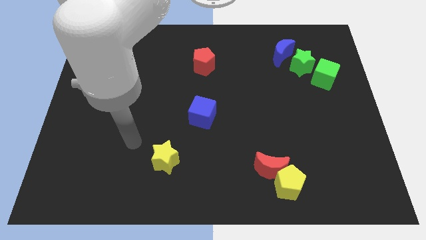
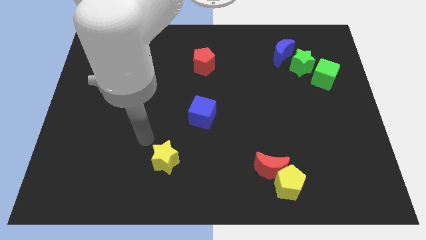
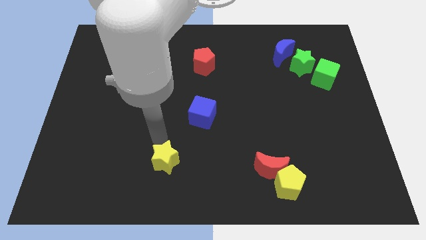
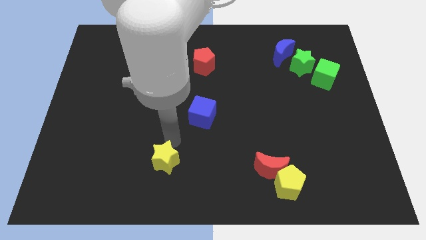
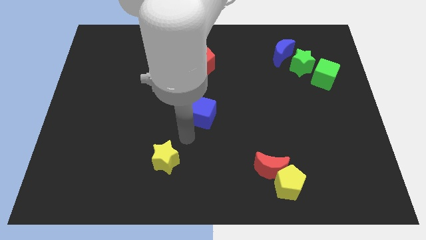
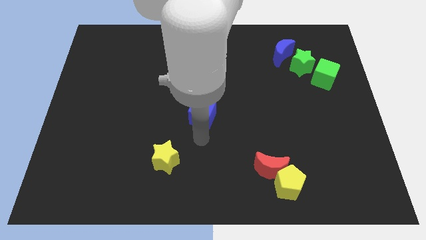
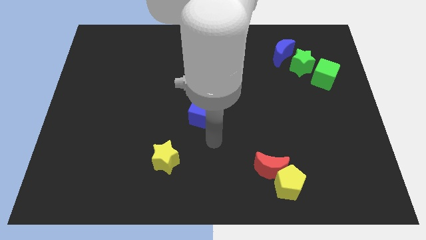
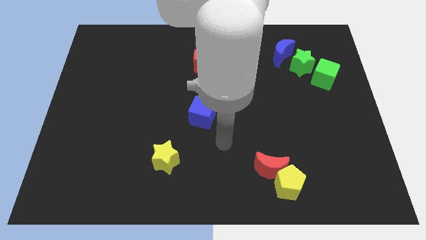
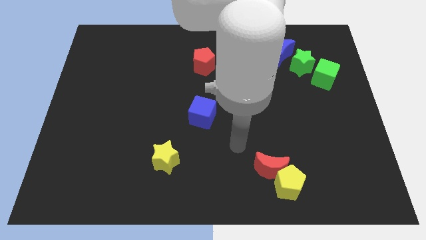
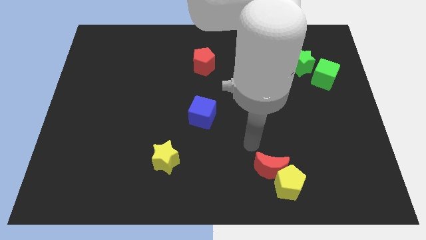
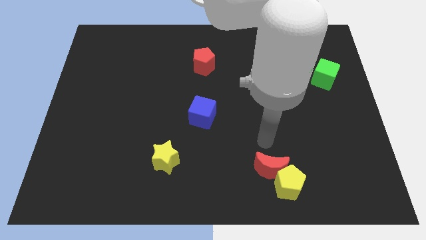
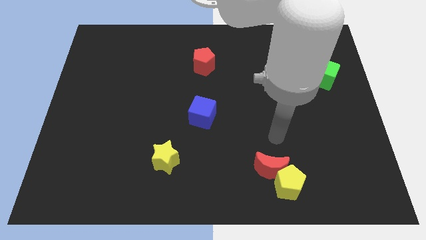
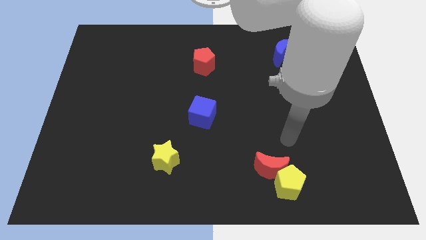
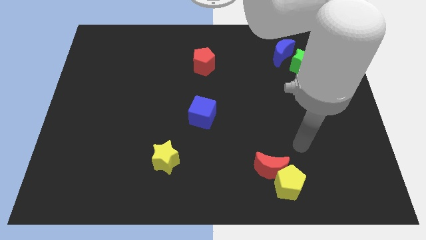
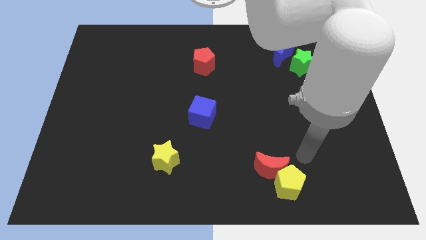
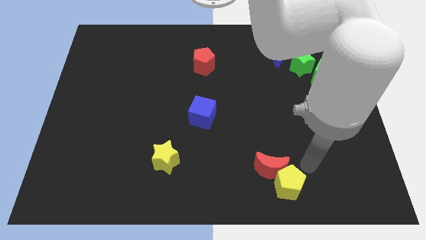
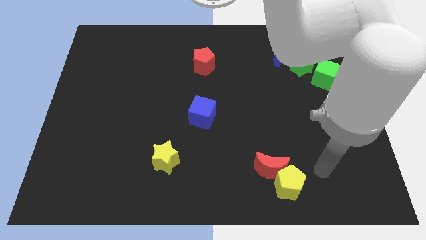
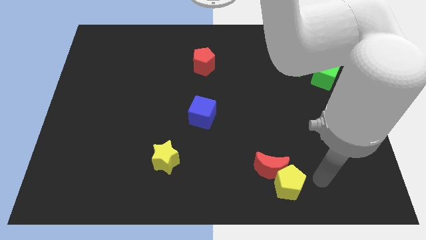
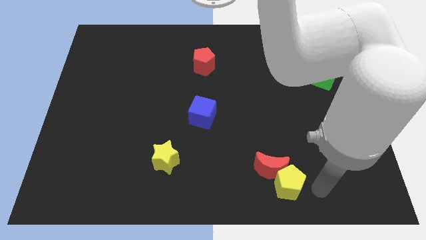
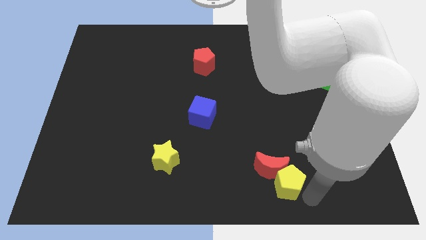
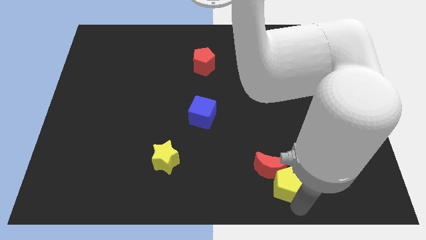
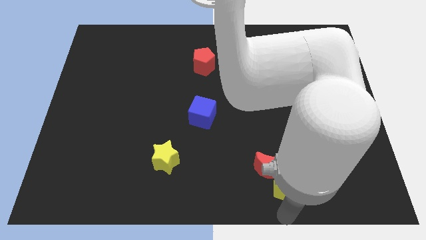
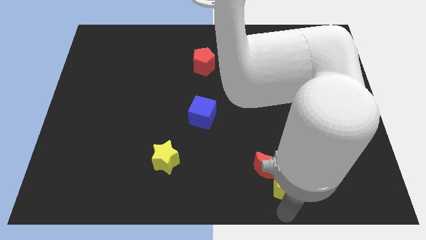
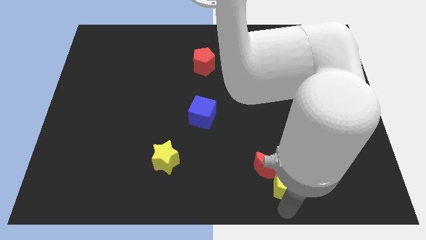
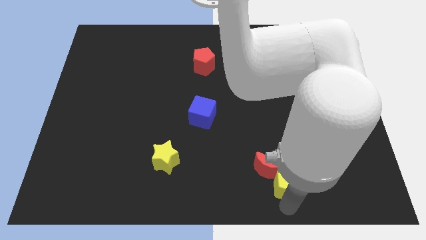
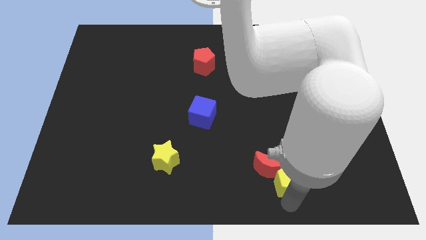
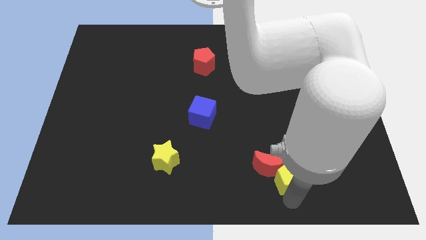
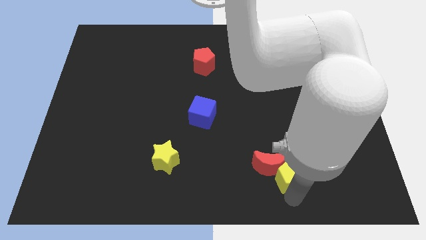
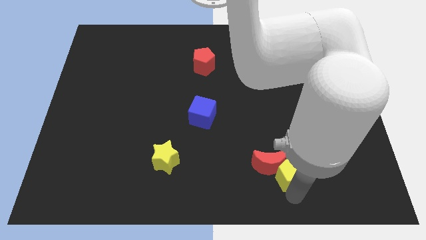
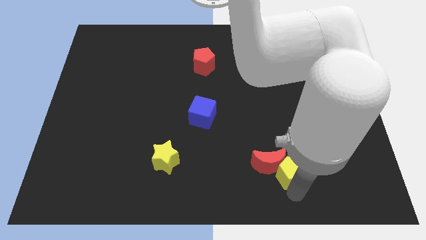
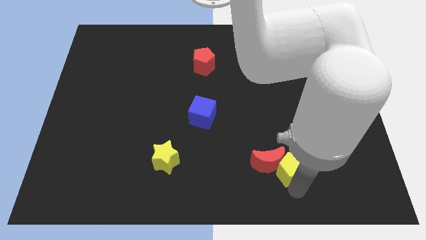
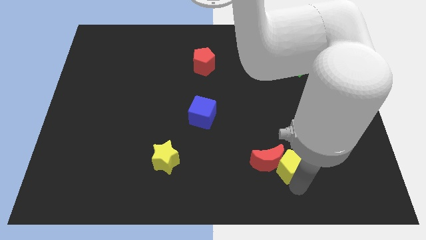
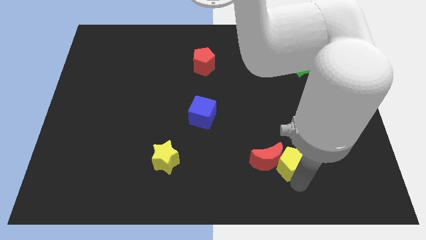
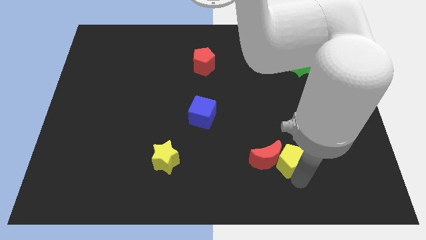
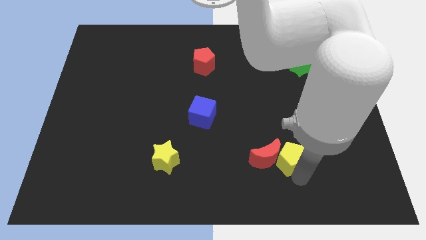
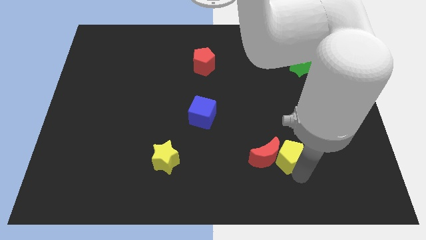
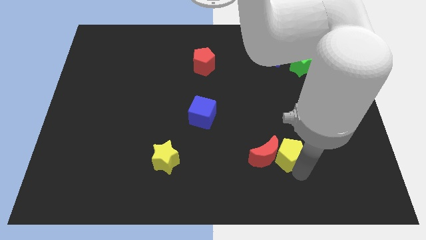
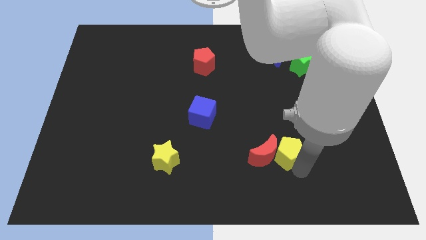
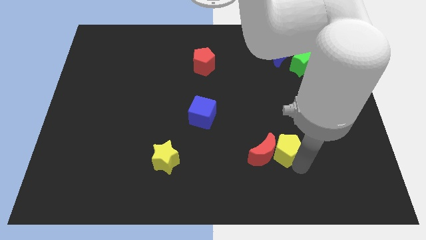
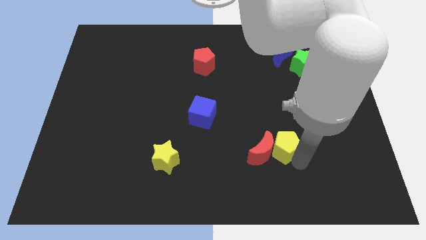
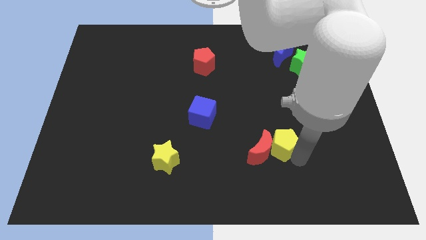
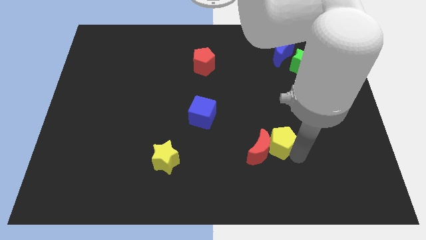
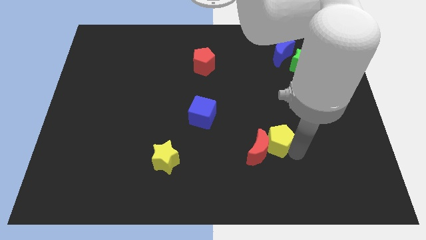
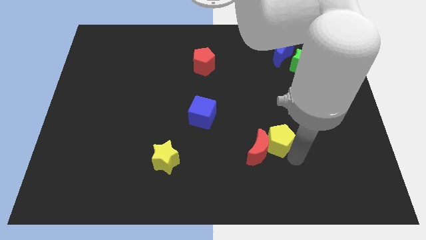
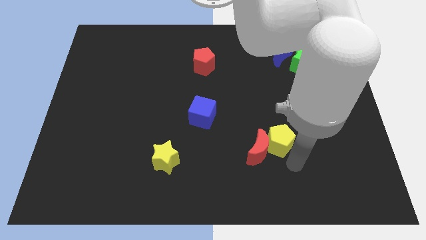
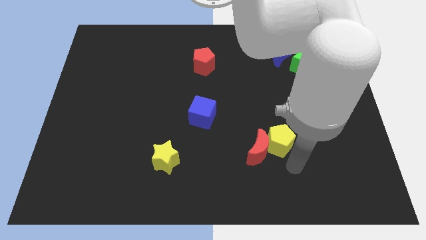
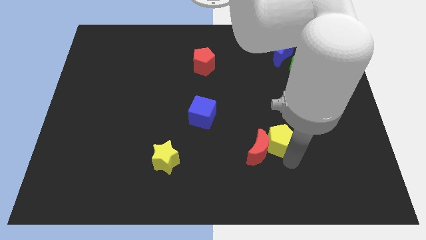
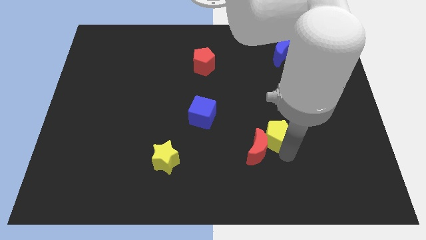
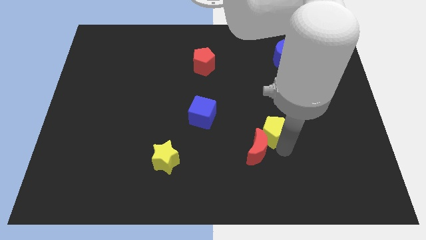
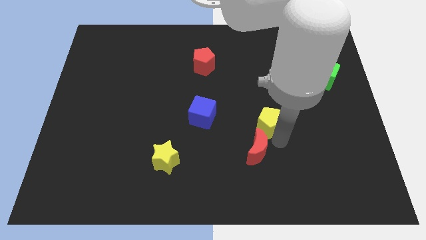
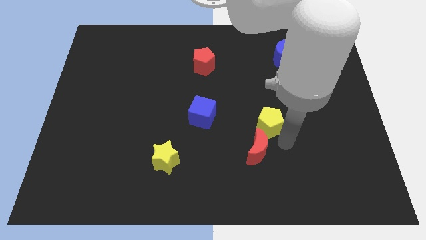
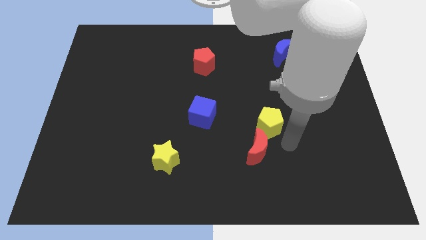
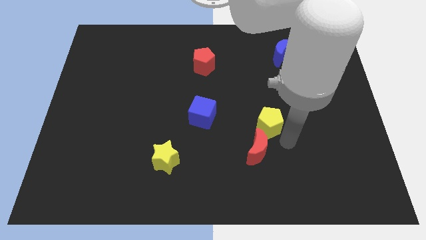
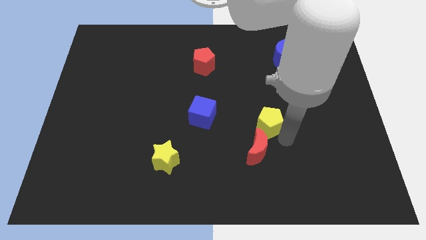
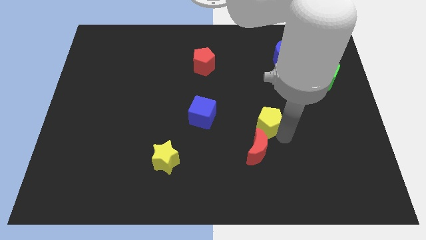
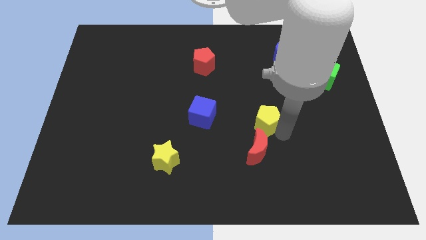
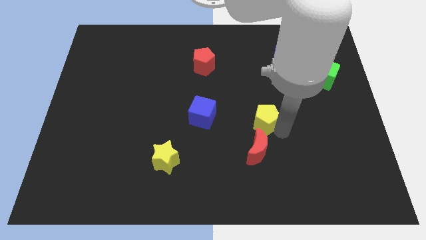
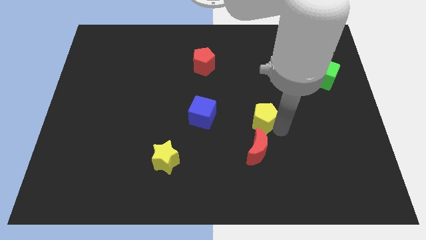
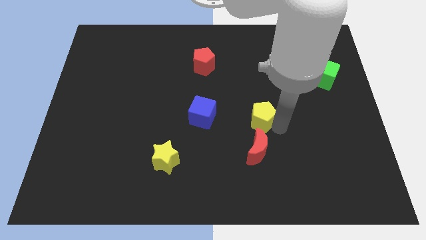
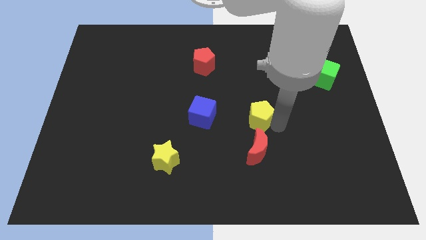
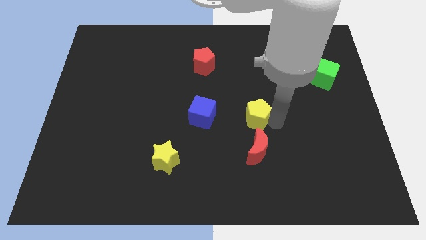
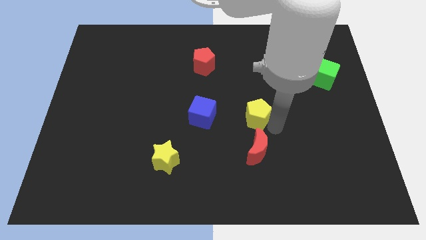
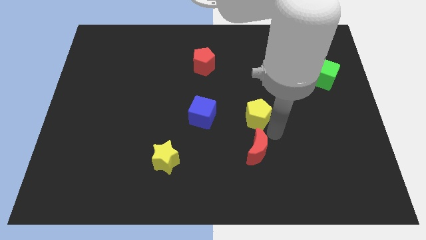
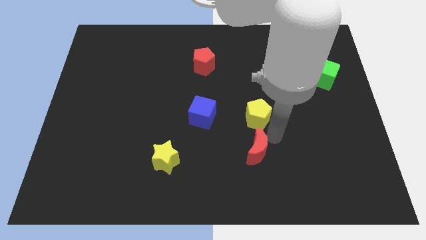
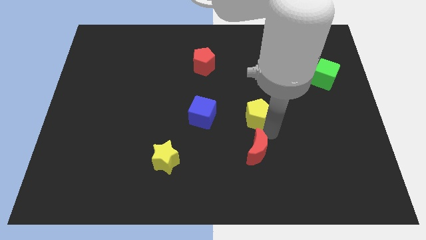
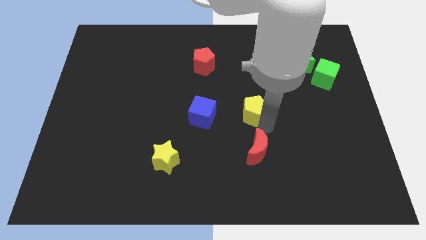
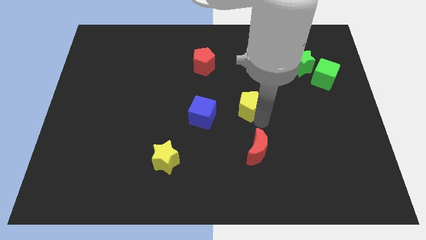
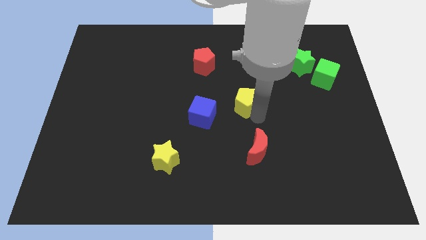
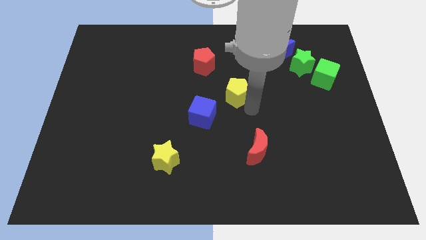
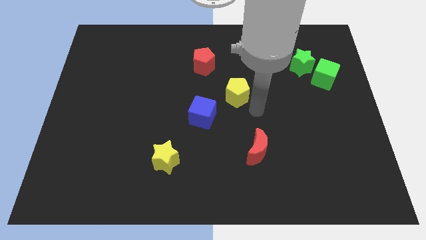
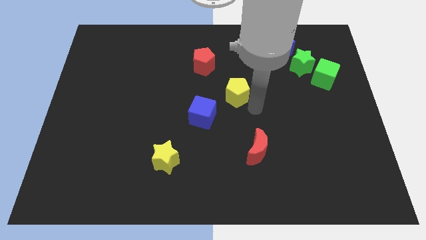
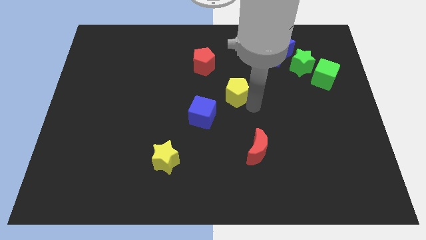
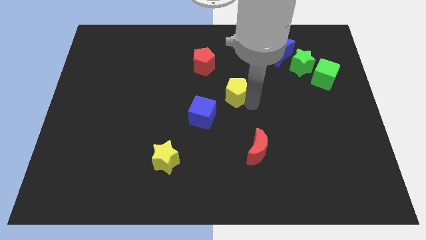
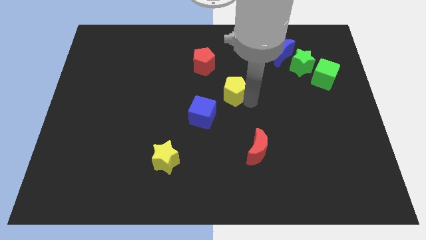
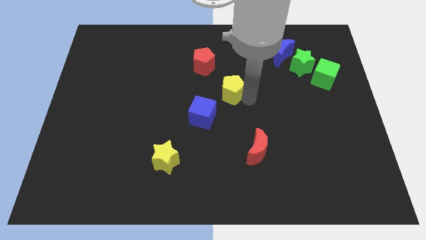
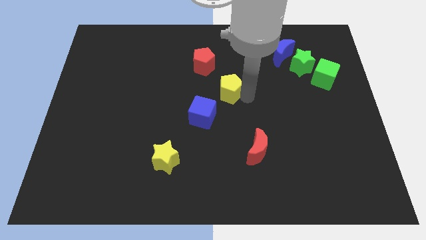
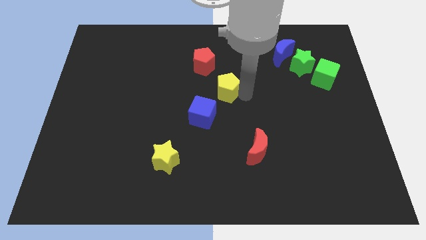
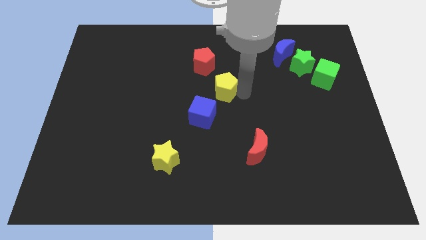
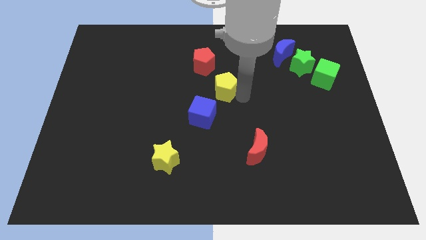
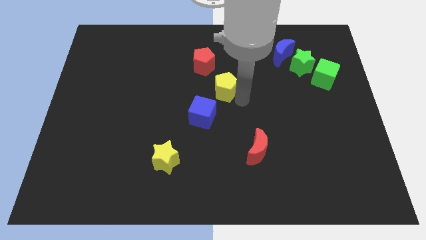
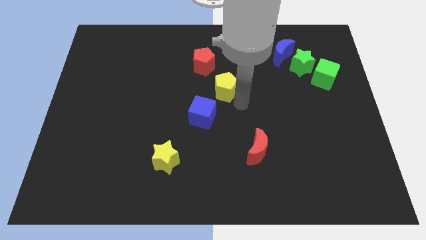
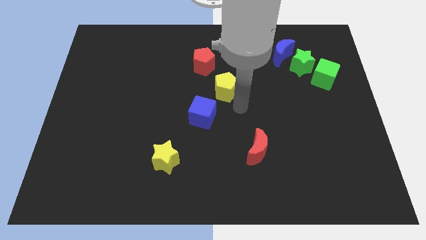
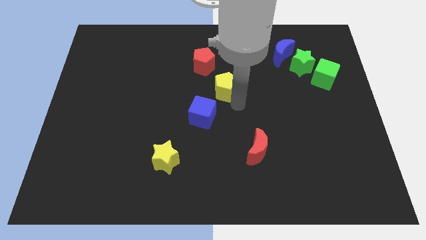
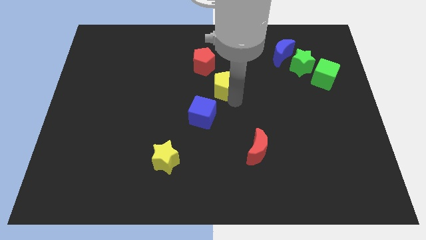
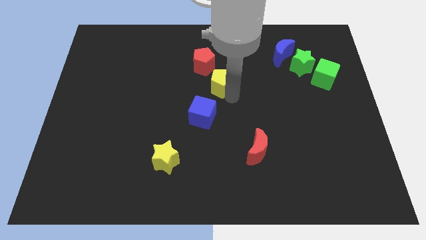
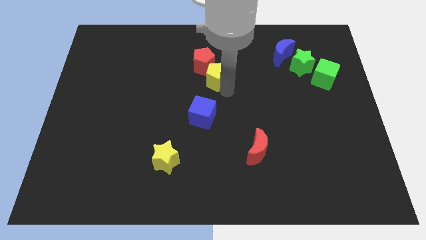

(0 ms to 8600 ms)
put the yellow pentagon close to the red pentagon
